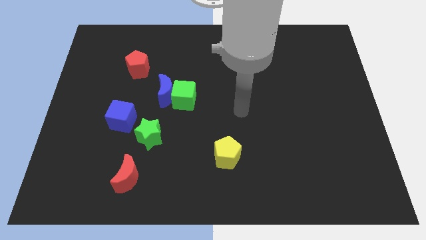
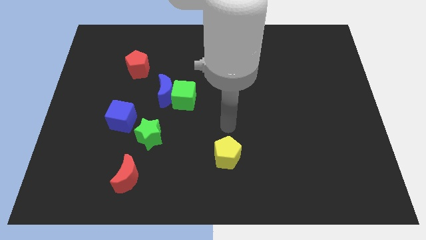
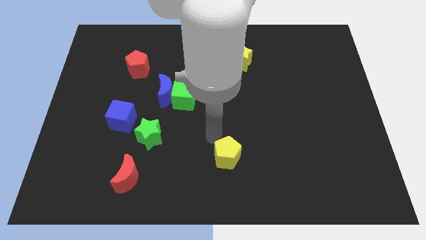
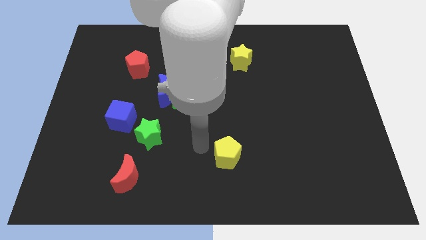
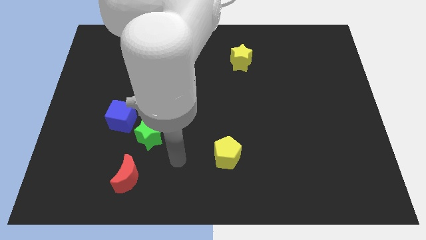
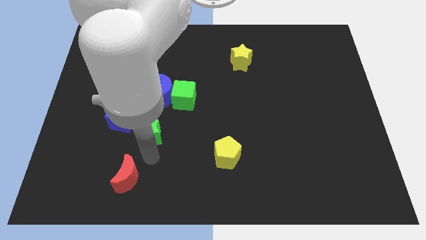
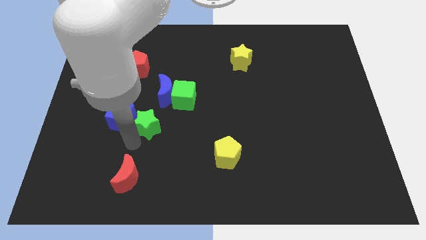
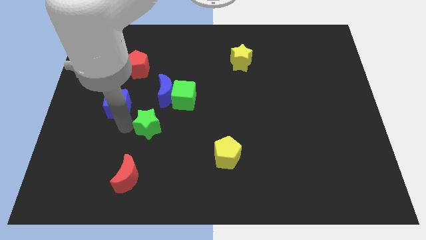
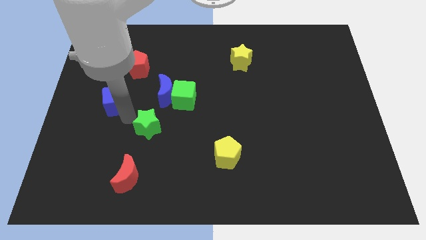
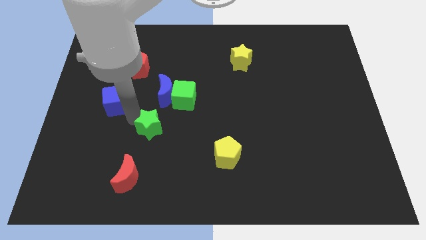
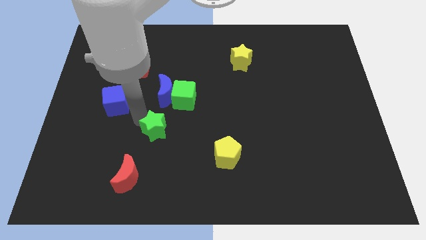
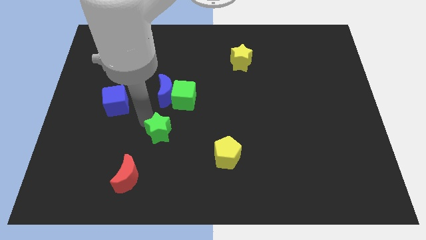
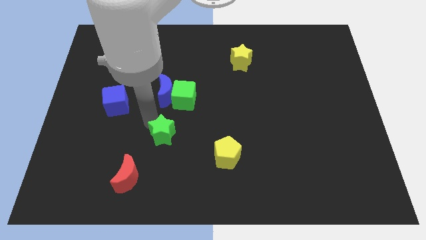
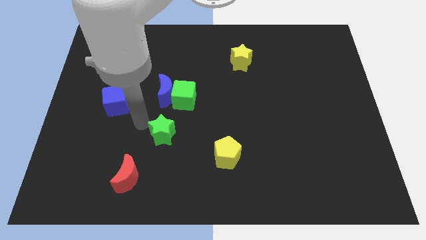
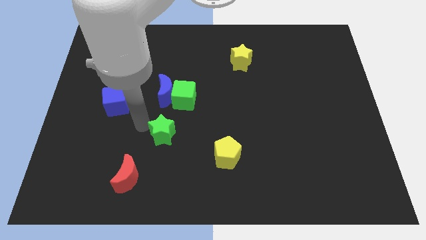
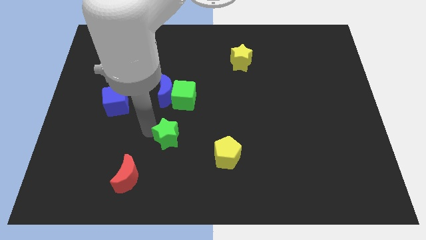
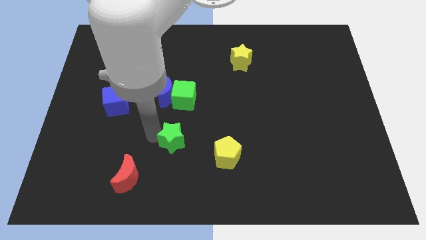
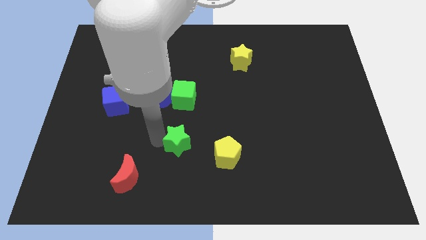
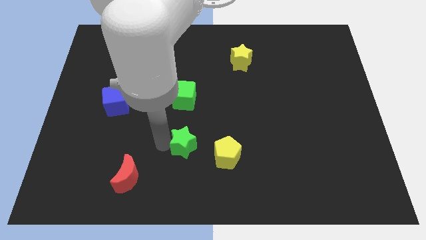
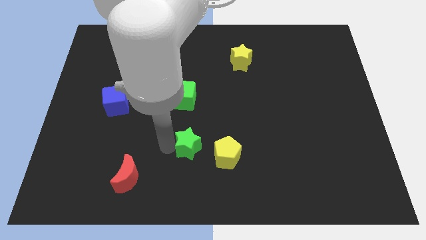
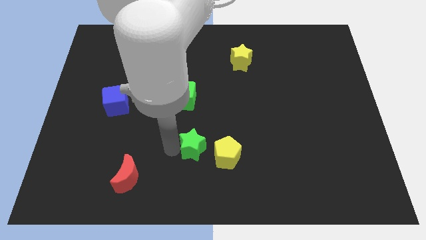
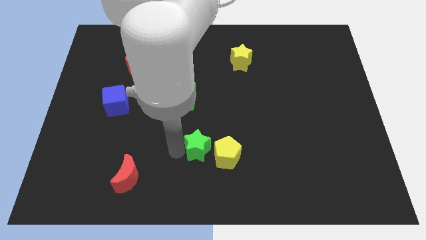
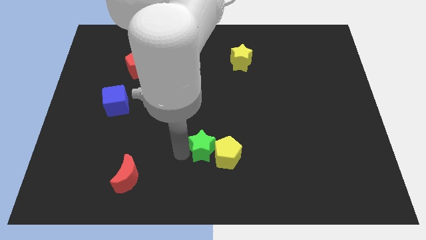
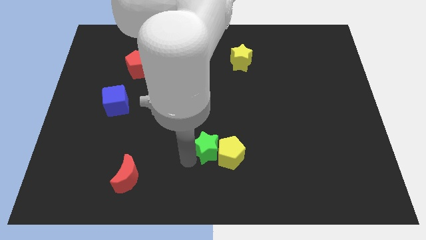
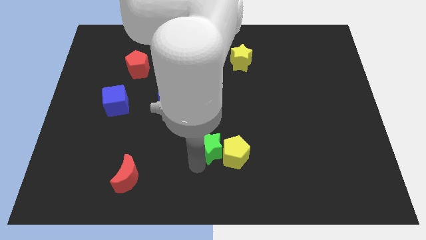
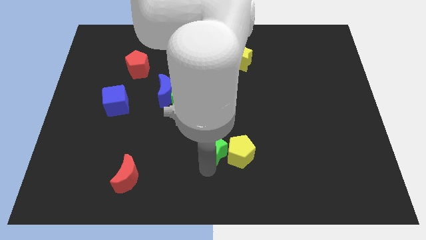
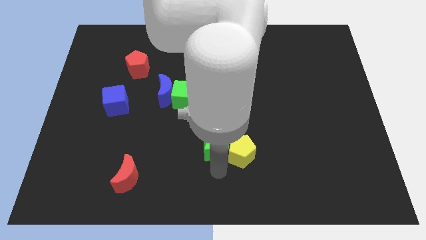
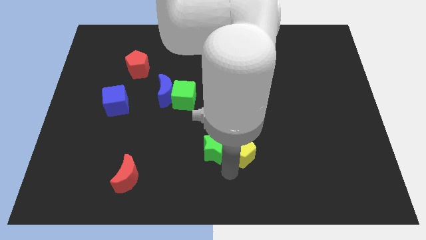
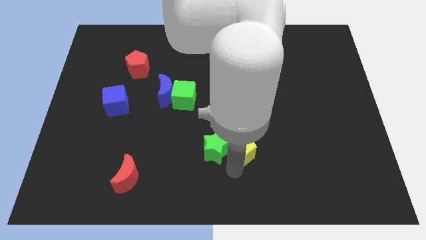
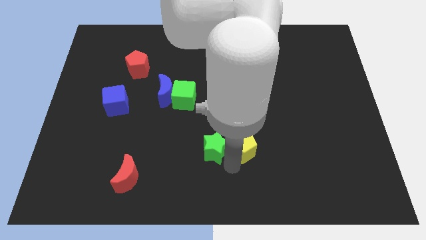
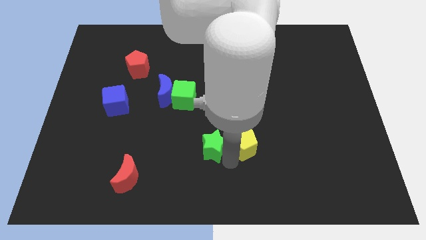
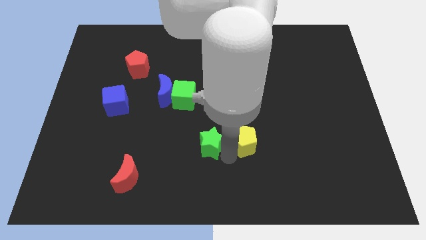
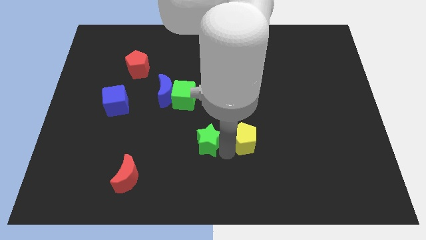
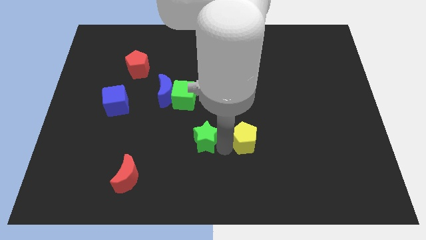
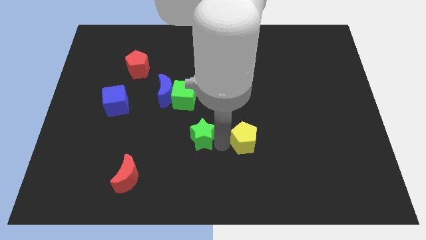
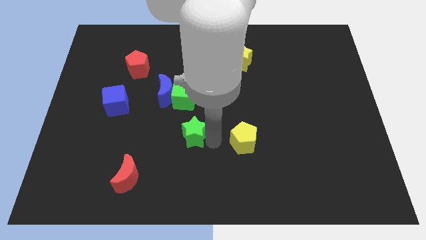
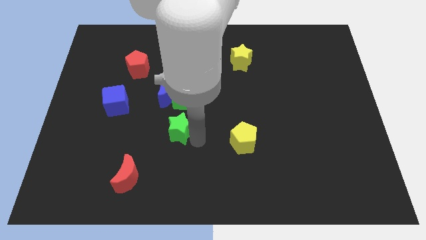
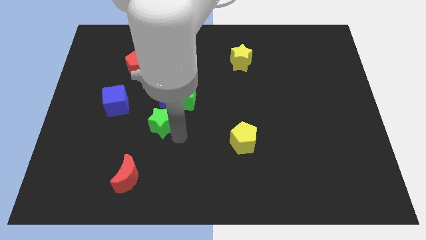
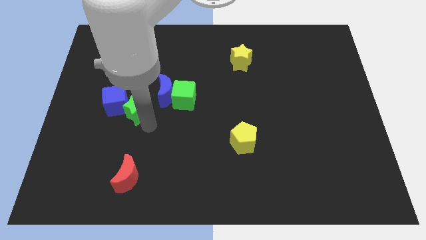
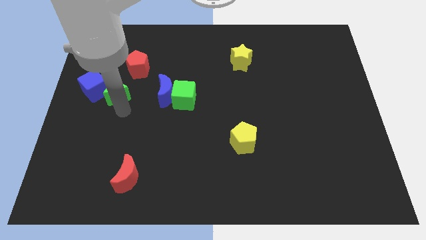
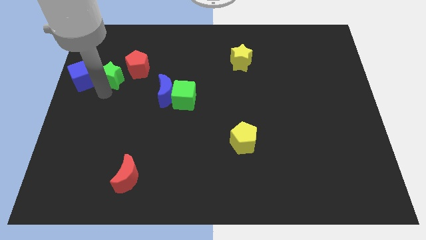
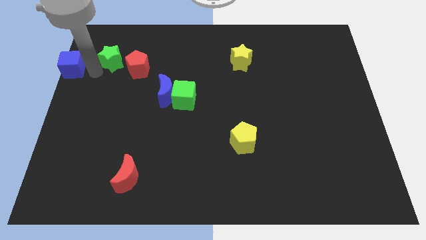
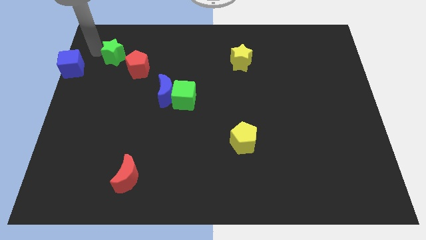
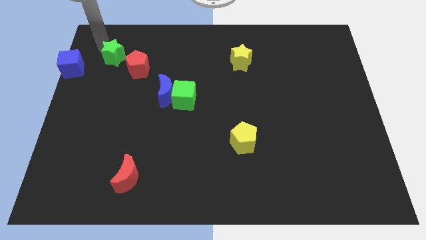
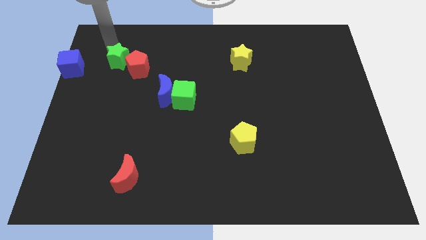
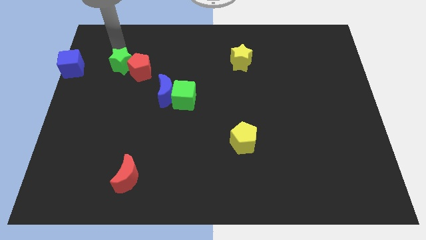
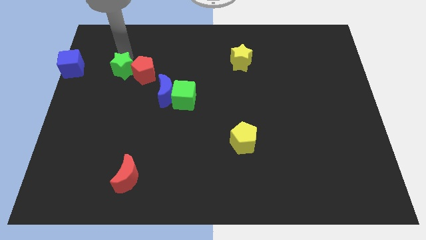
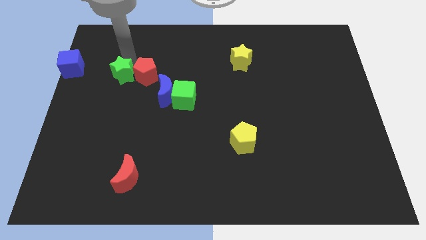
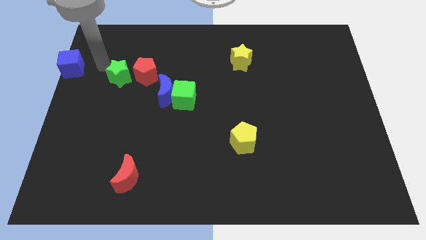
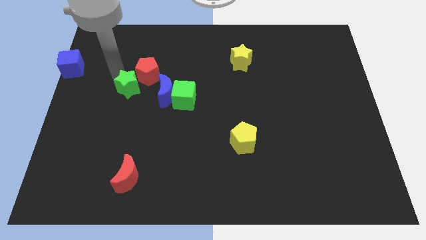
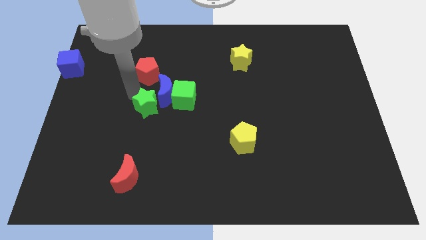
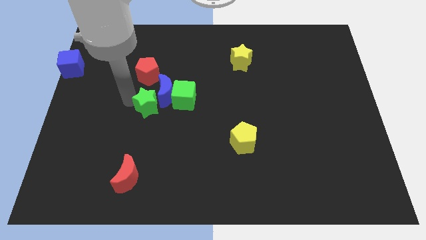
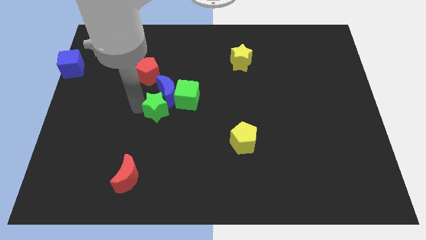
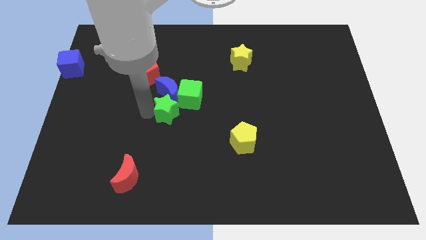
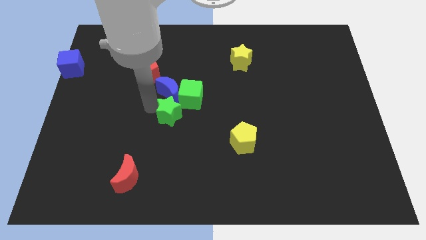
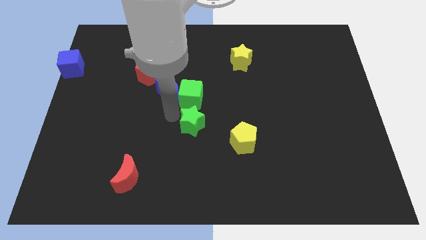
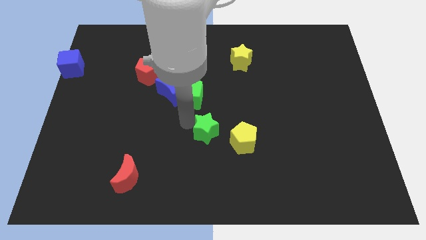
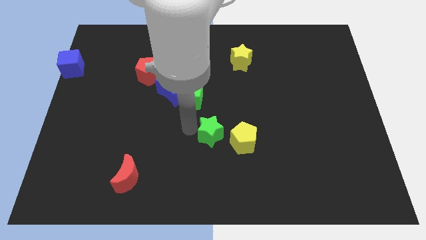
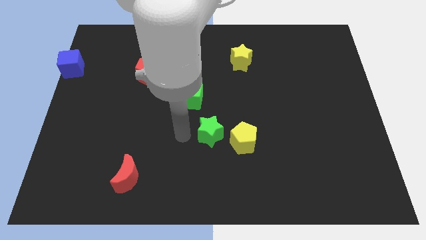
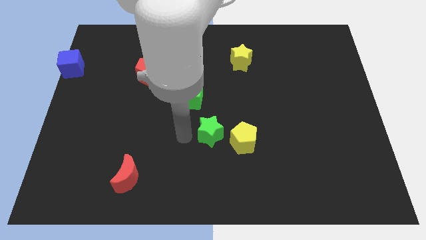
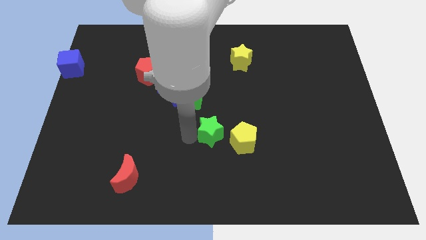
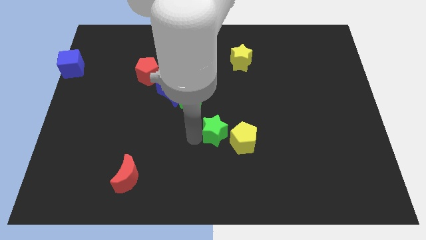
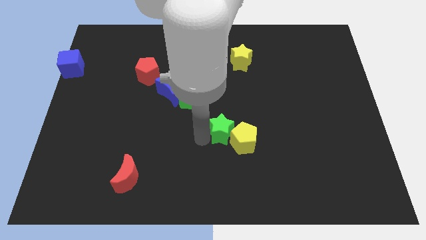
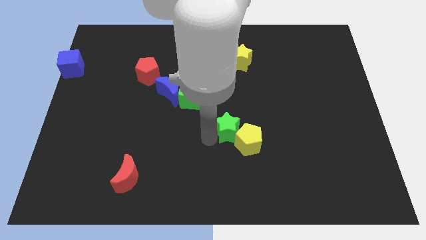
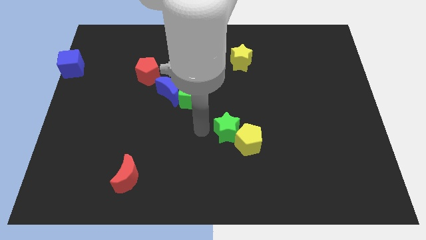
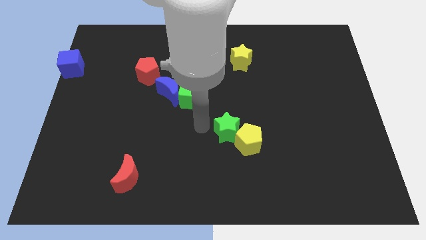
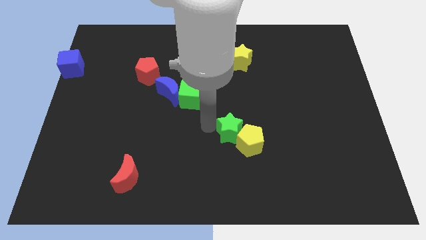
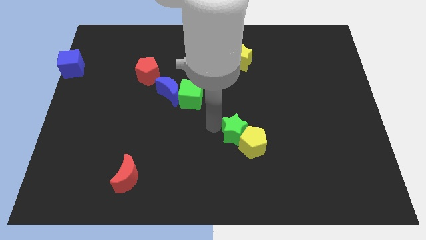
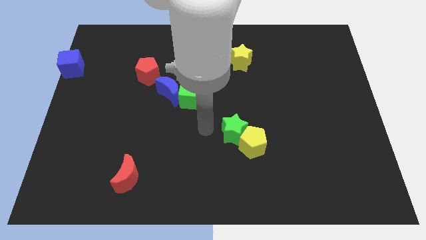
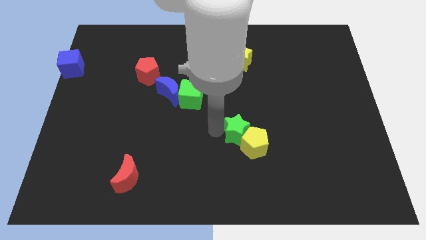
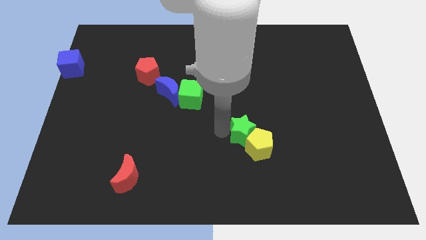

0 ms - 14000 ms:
move the green star right

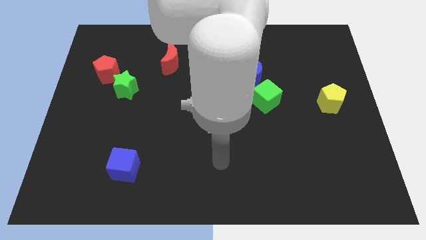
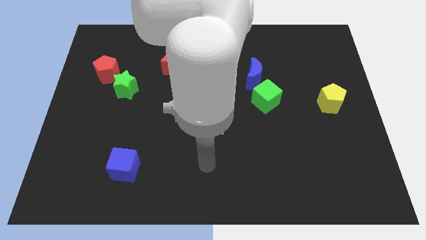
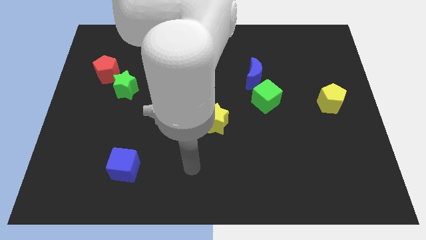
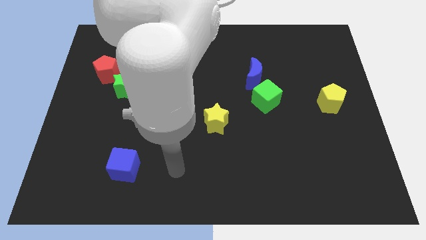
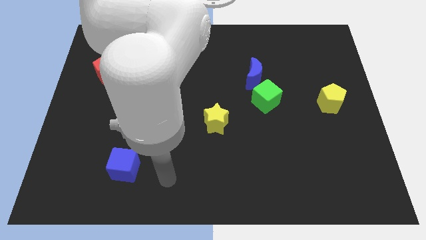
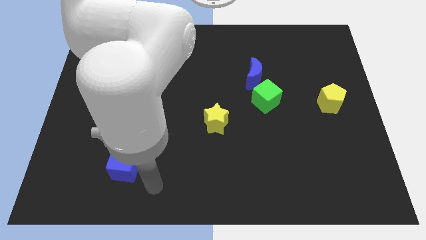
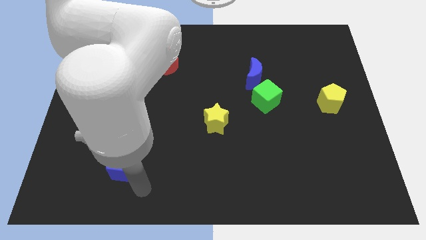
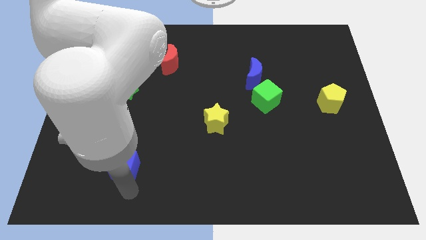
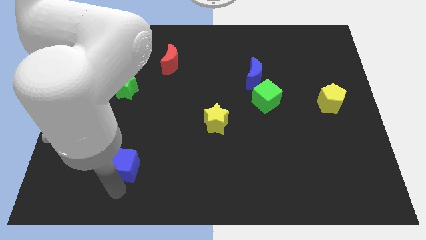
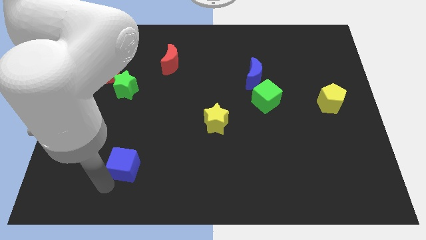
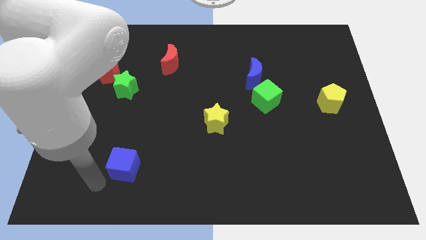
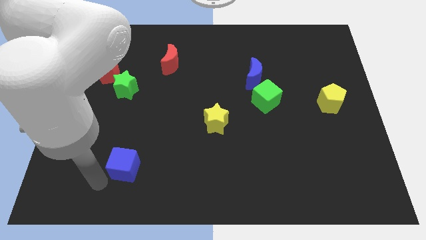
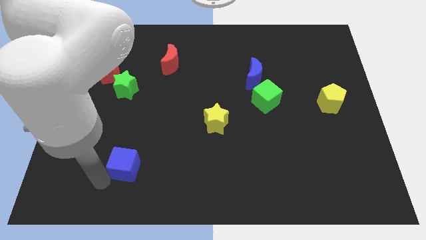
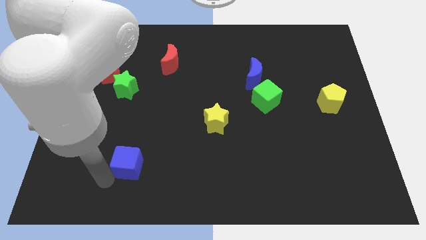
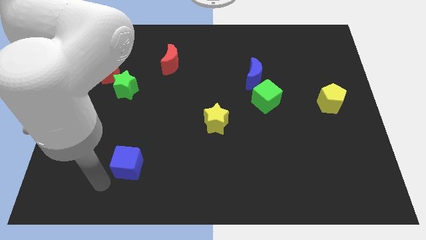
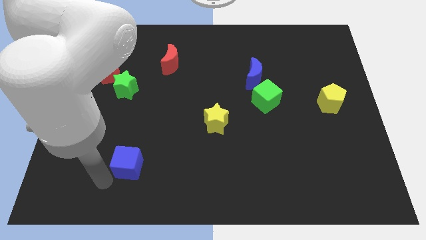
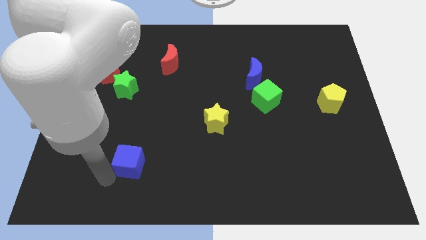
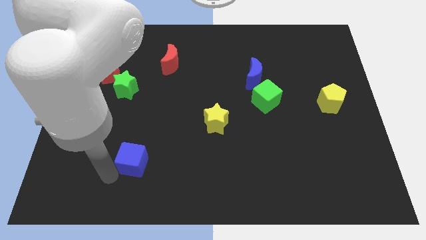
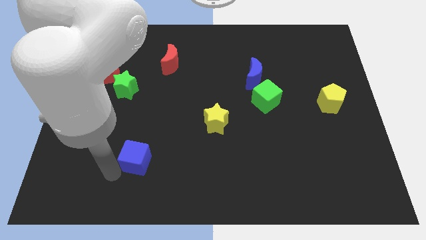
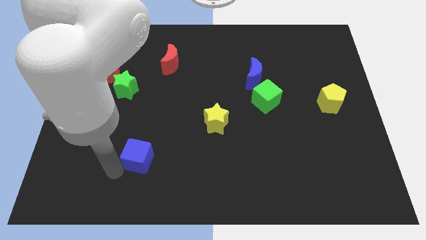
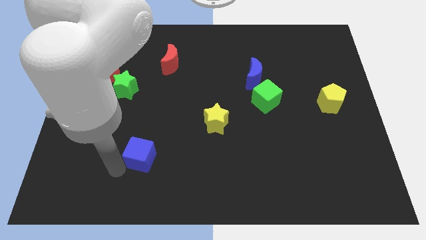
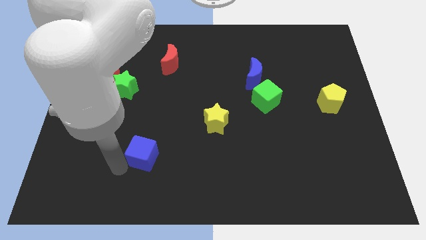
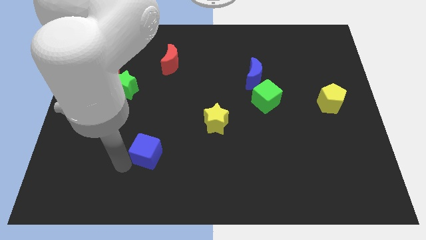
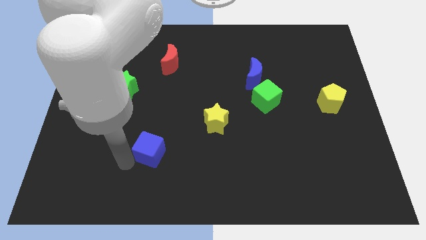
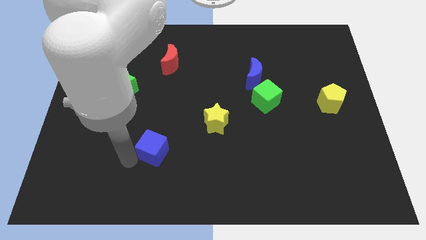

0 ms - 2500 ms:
move the blue cube upwards and to the right a little
